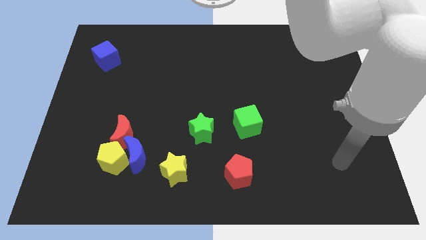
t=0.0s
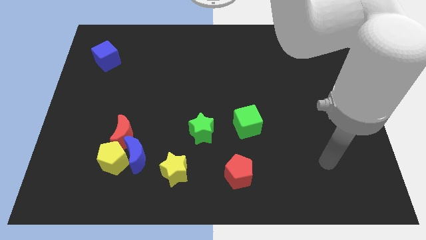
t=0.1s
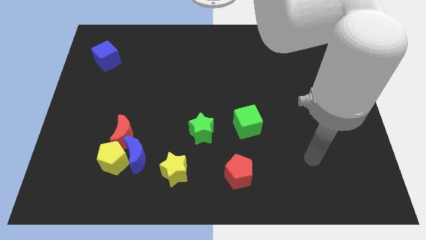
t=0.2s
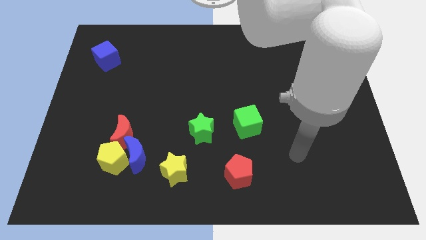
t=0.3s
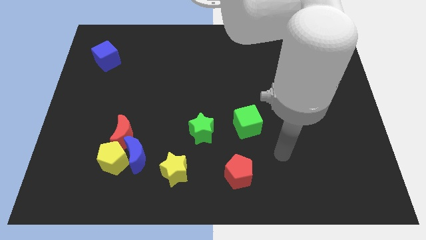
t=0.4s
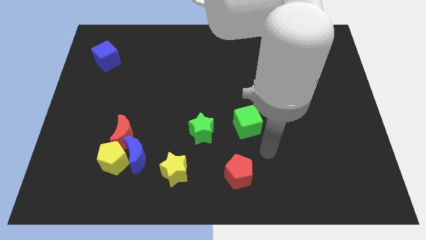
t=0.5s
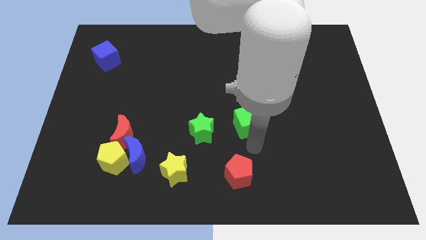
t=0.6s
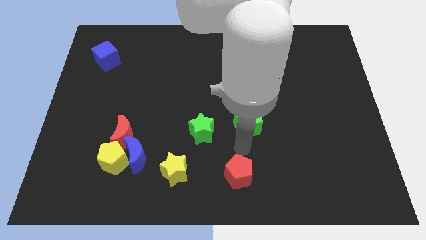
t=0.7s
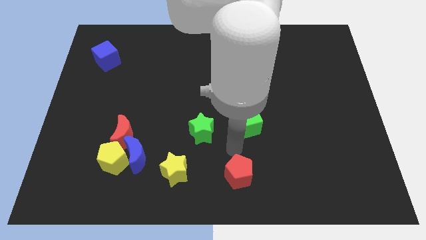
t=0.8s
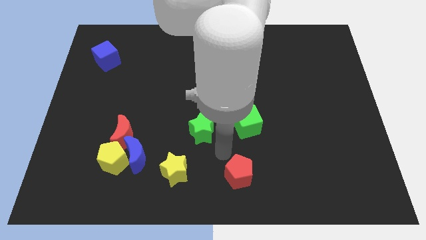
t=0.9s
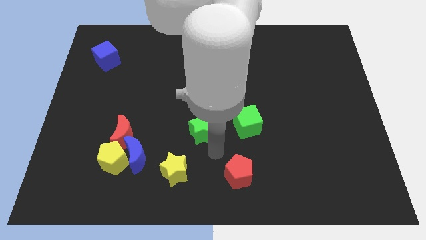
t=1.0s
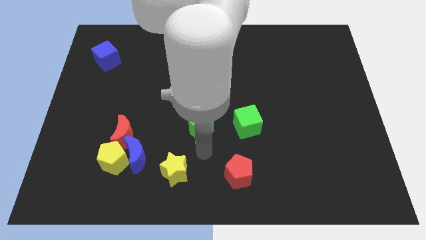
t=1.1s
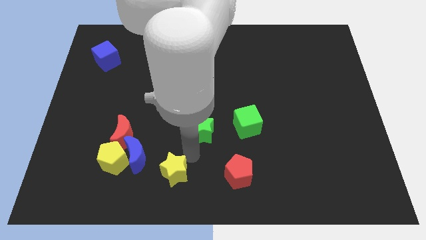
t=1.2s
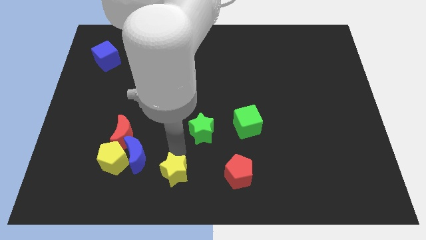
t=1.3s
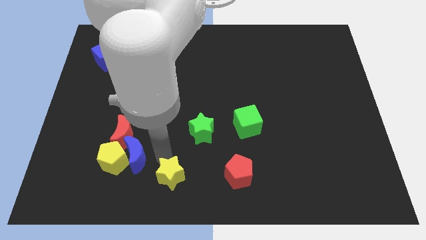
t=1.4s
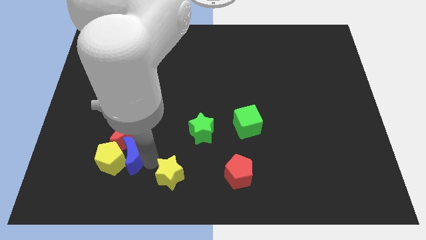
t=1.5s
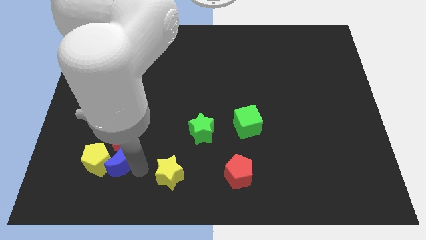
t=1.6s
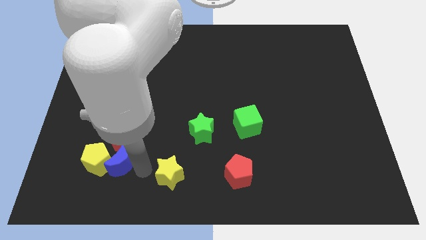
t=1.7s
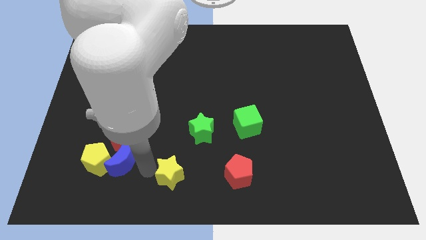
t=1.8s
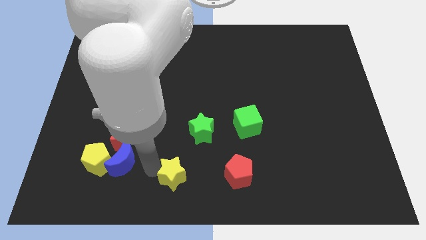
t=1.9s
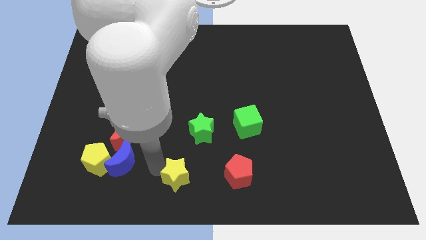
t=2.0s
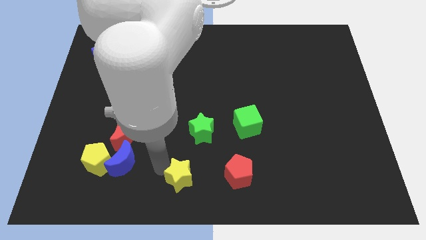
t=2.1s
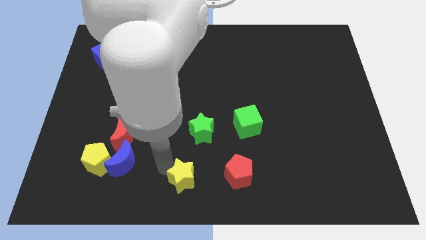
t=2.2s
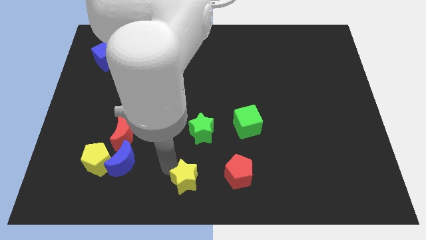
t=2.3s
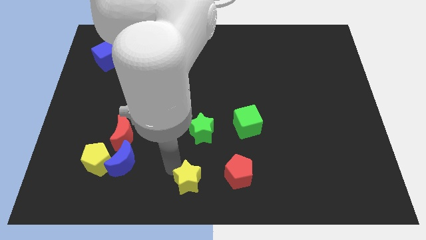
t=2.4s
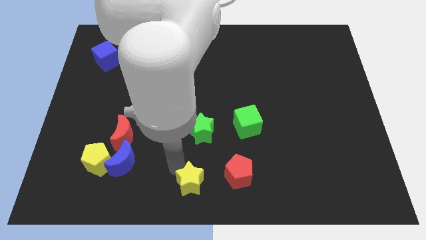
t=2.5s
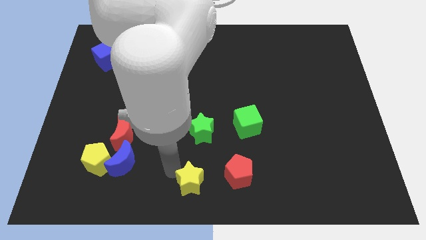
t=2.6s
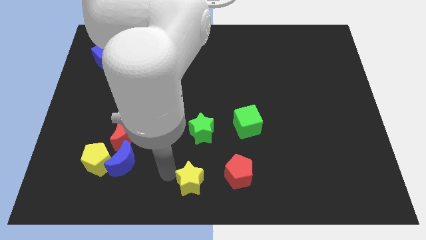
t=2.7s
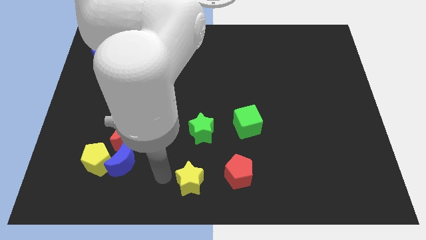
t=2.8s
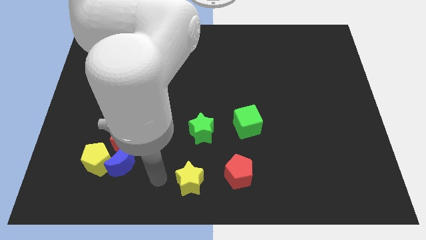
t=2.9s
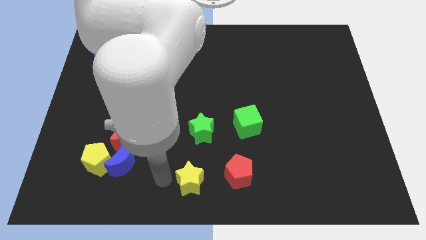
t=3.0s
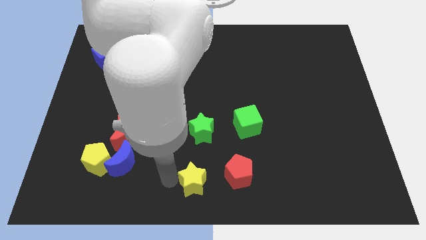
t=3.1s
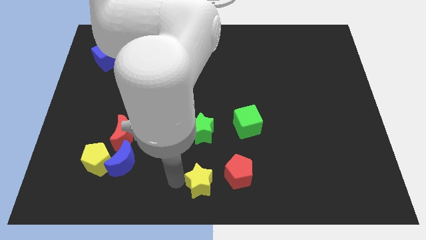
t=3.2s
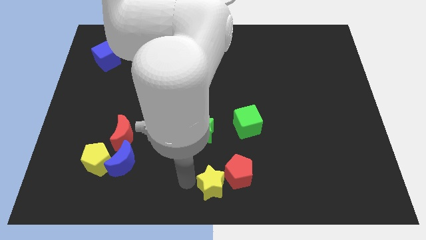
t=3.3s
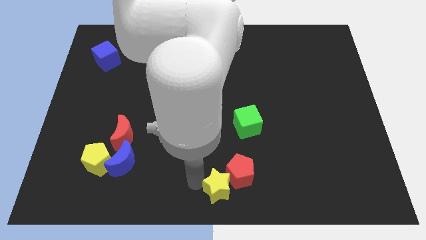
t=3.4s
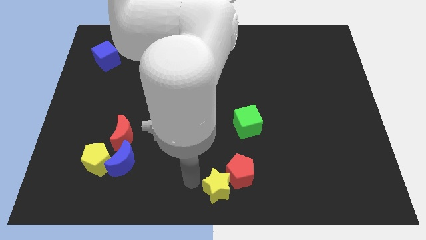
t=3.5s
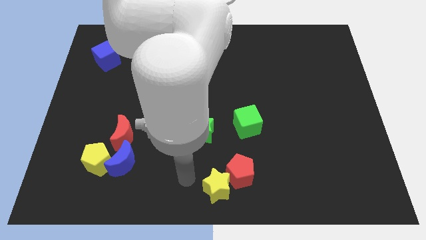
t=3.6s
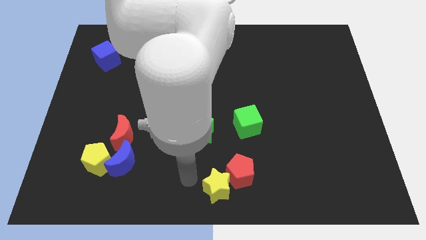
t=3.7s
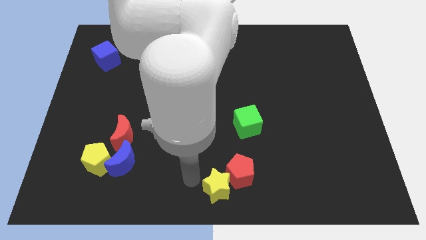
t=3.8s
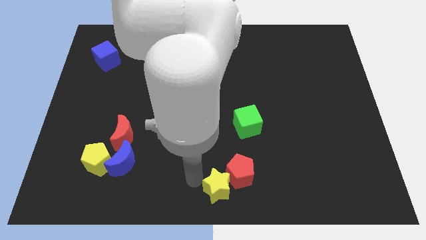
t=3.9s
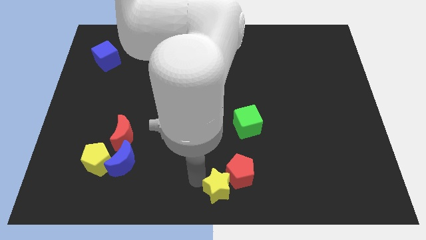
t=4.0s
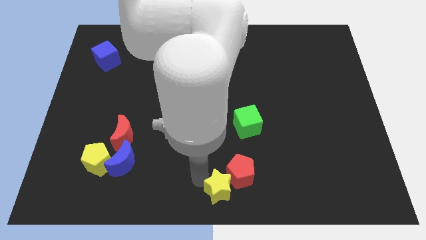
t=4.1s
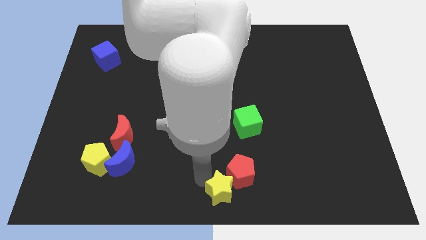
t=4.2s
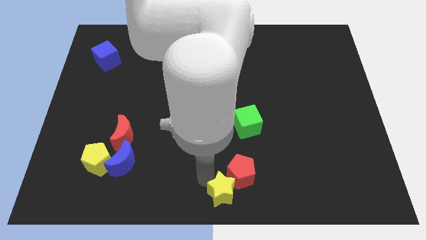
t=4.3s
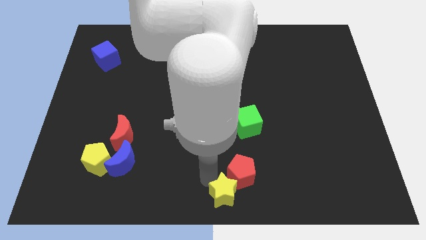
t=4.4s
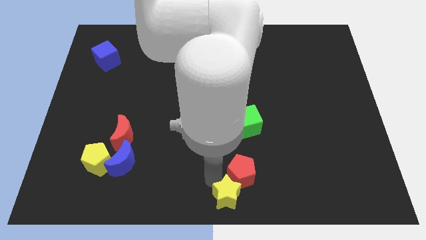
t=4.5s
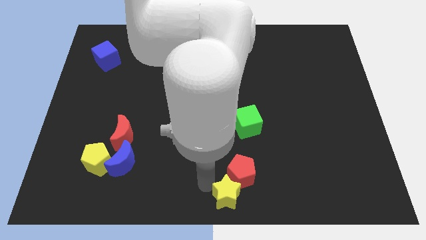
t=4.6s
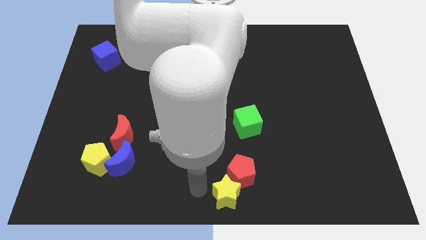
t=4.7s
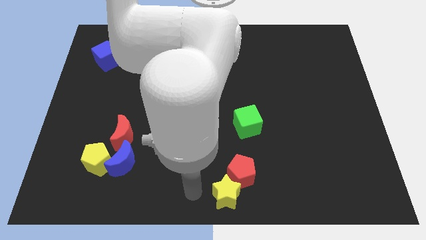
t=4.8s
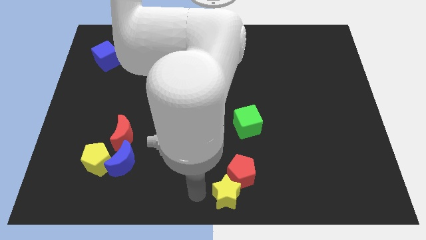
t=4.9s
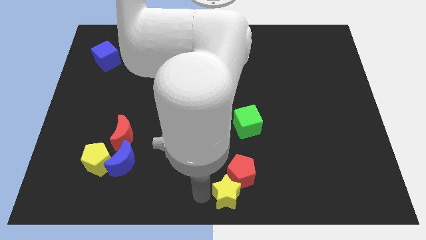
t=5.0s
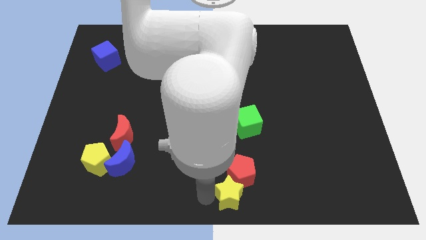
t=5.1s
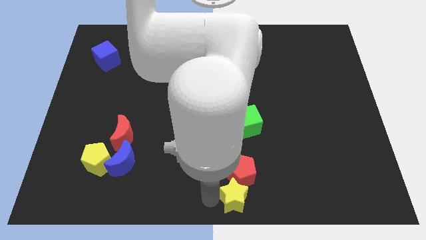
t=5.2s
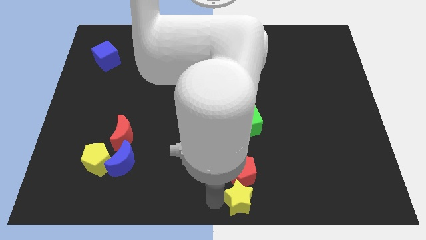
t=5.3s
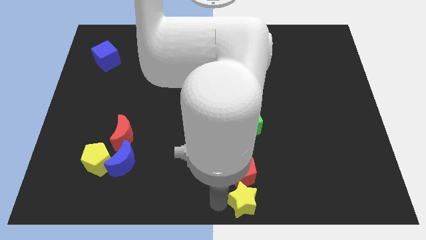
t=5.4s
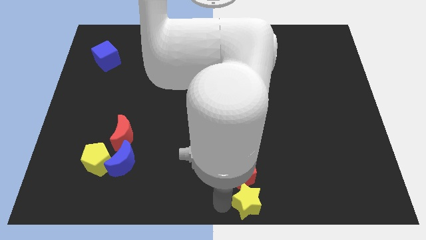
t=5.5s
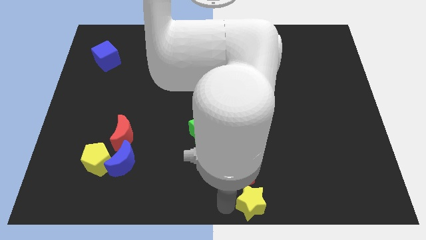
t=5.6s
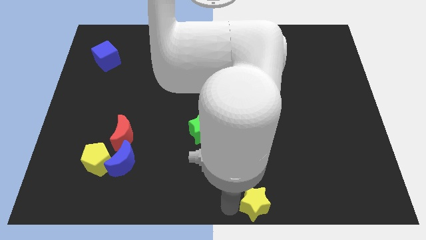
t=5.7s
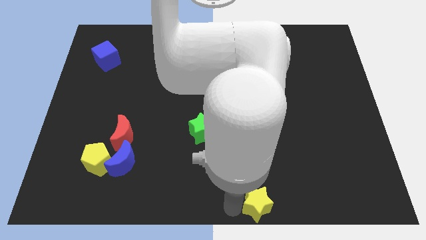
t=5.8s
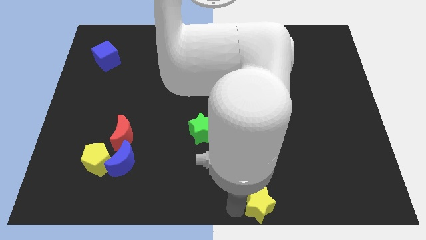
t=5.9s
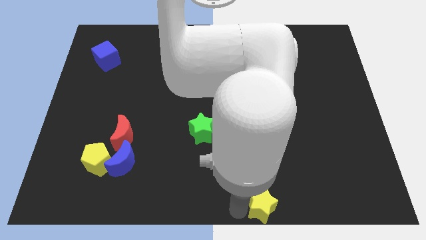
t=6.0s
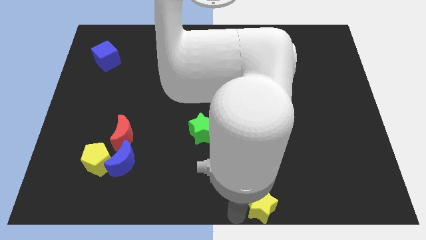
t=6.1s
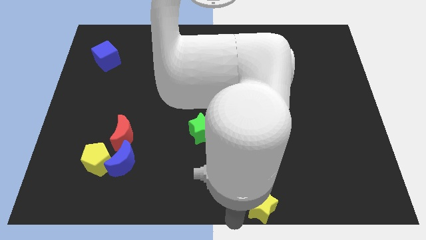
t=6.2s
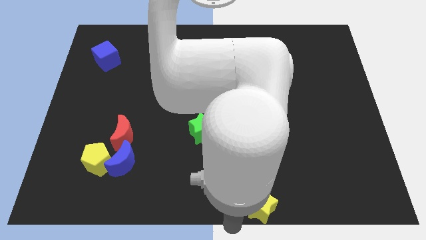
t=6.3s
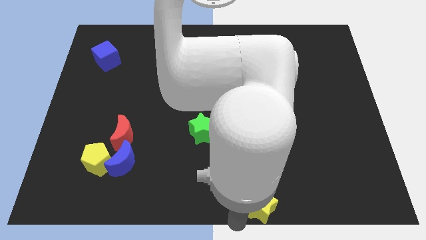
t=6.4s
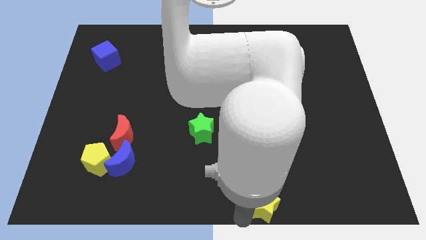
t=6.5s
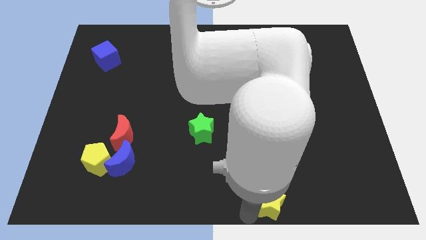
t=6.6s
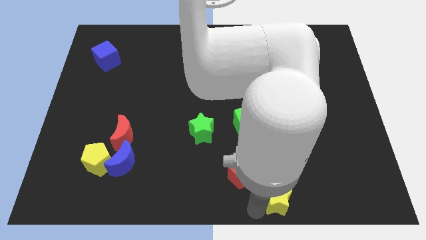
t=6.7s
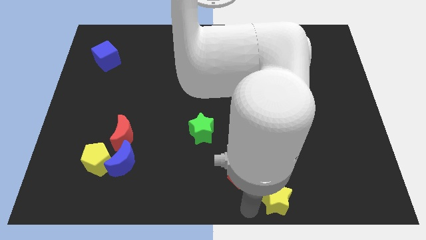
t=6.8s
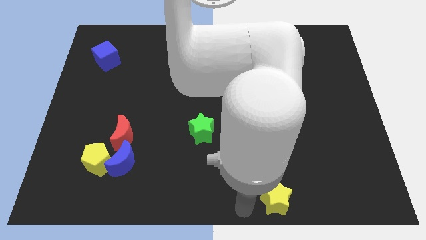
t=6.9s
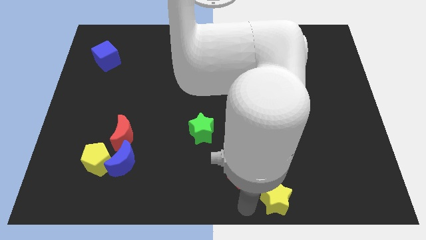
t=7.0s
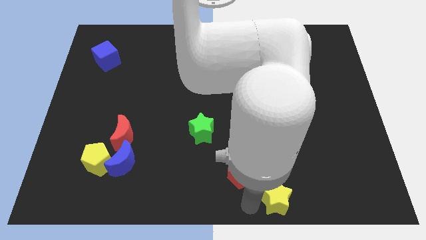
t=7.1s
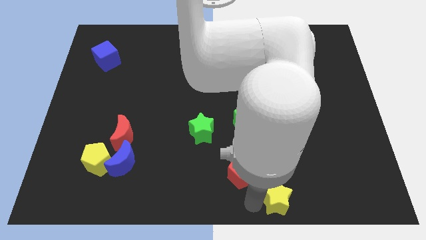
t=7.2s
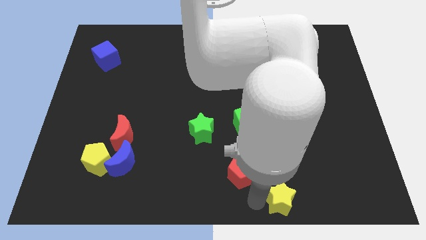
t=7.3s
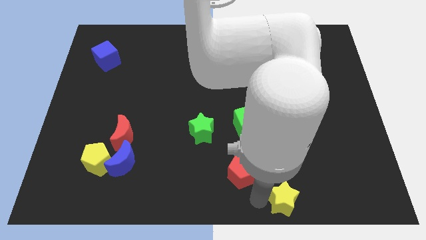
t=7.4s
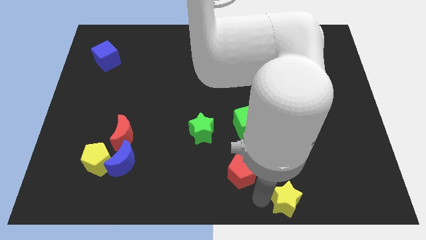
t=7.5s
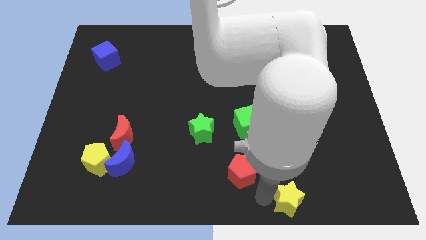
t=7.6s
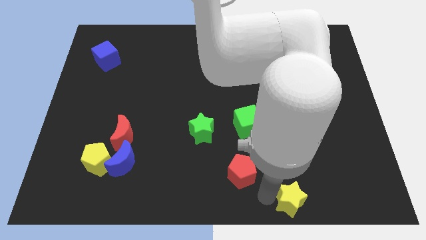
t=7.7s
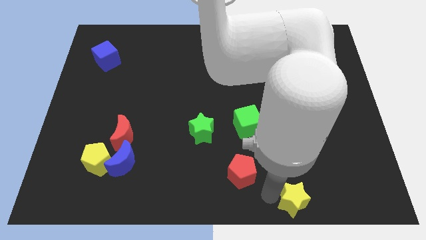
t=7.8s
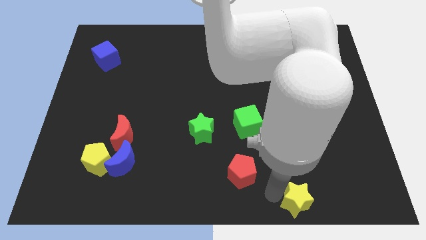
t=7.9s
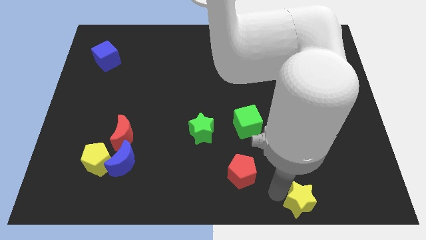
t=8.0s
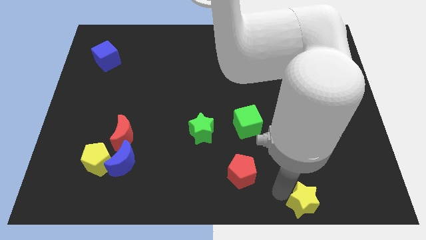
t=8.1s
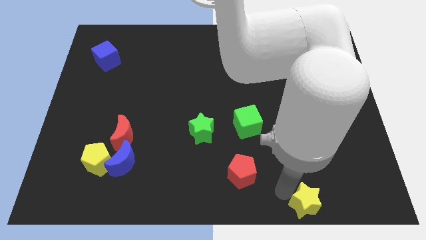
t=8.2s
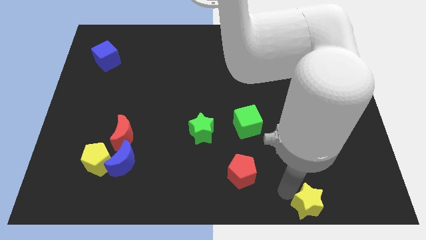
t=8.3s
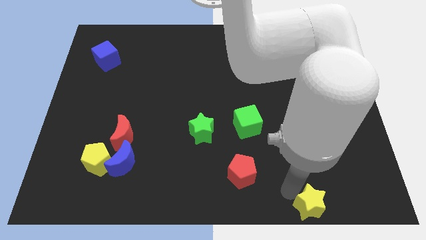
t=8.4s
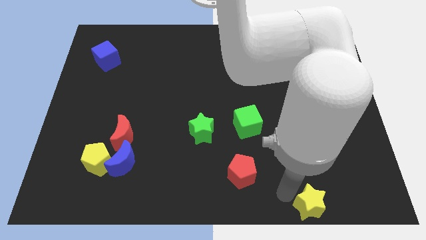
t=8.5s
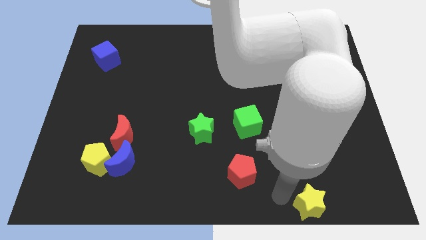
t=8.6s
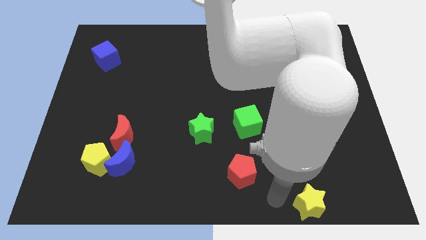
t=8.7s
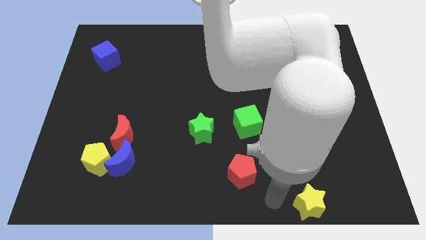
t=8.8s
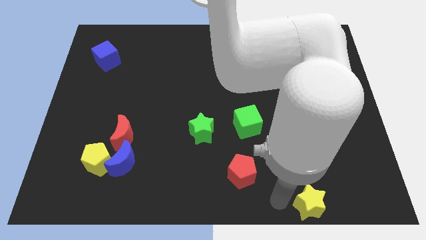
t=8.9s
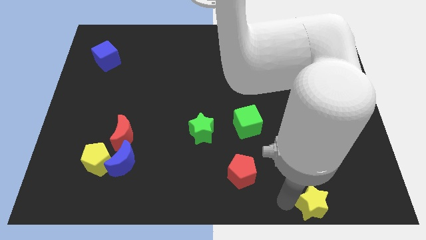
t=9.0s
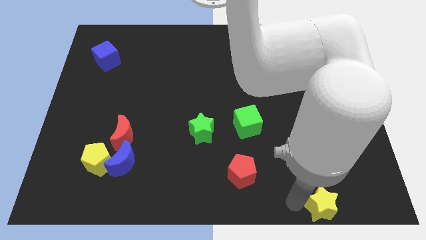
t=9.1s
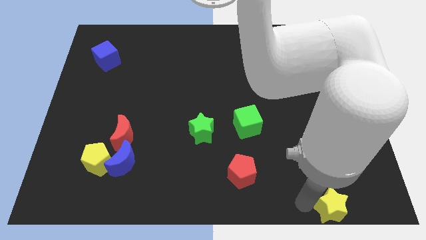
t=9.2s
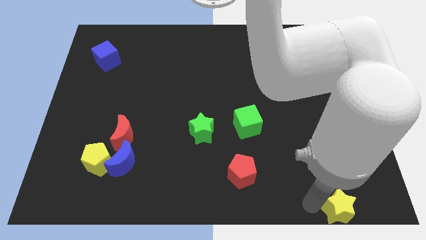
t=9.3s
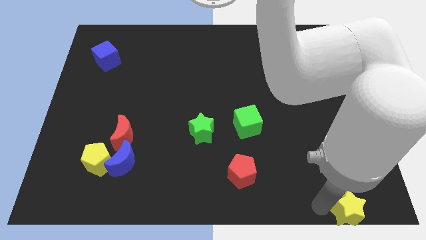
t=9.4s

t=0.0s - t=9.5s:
move the yellow star to the bottom right
